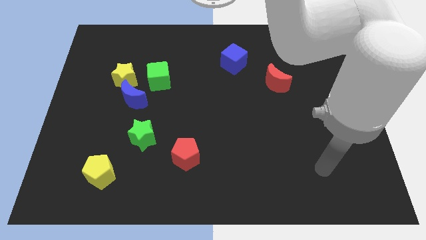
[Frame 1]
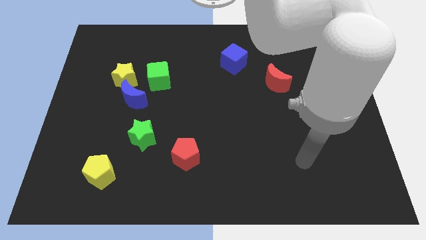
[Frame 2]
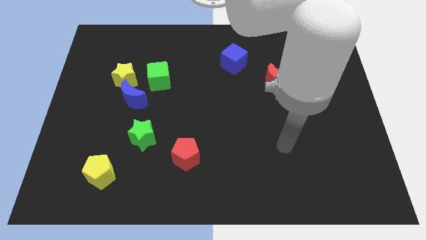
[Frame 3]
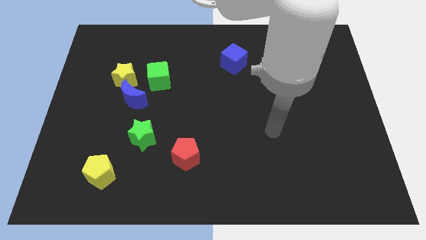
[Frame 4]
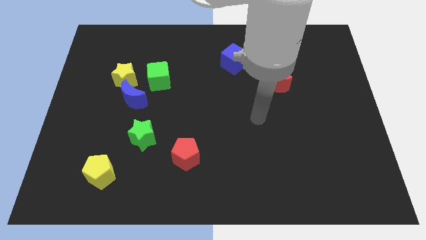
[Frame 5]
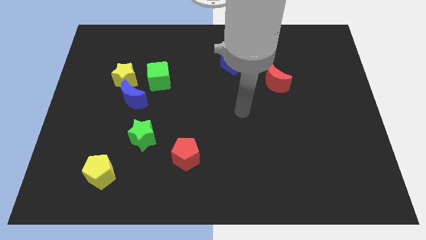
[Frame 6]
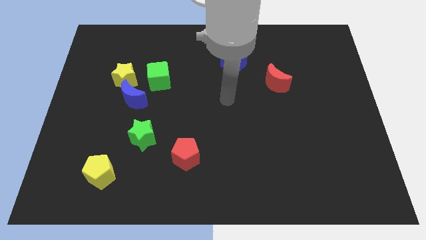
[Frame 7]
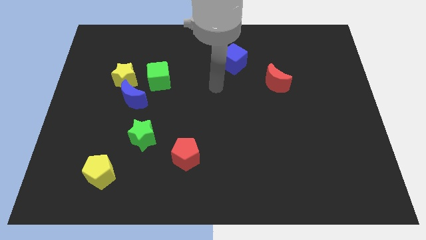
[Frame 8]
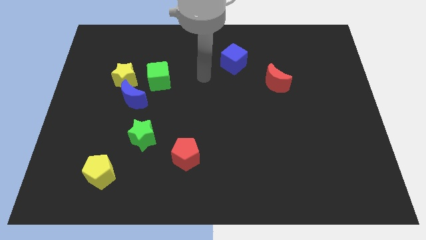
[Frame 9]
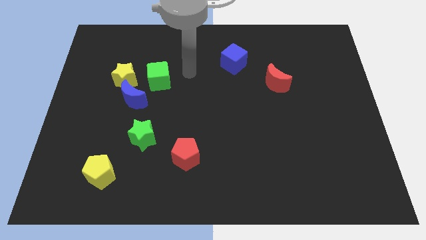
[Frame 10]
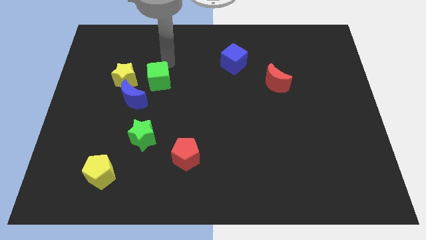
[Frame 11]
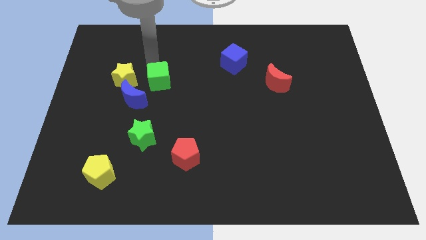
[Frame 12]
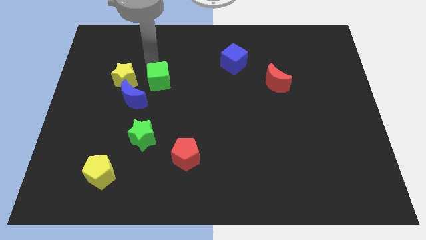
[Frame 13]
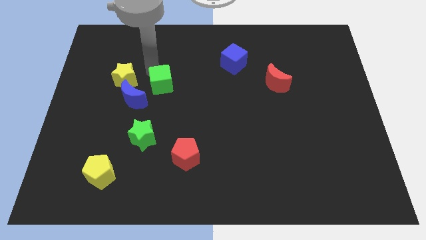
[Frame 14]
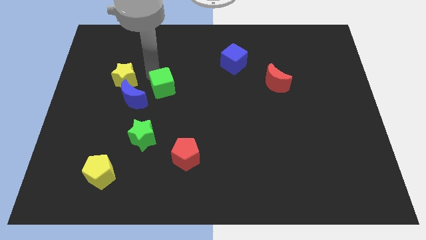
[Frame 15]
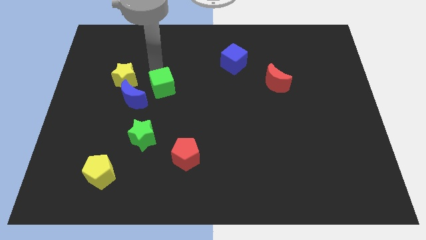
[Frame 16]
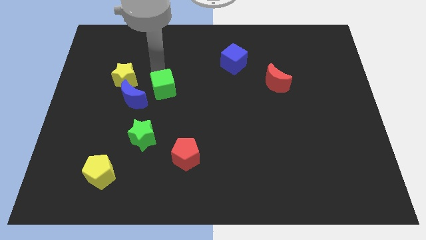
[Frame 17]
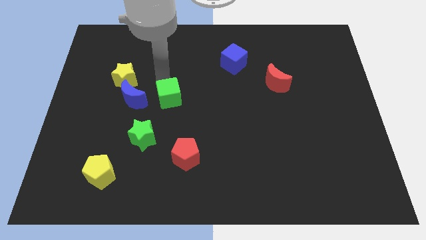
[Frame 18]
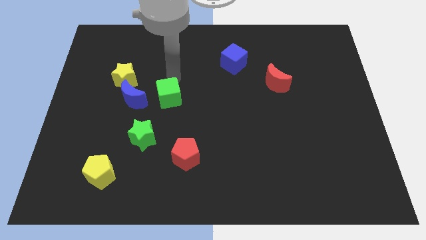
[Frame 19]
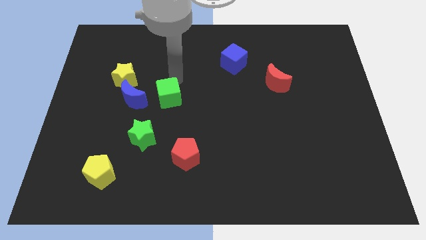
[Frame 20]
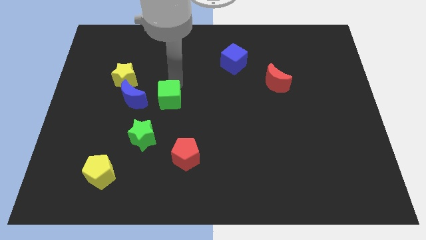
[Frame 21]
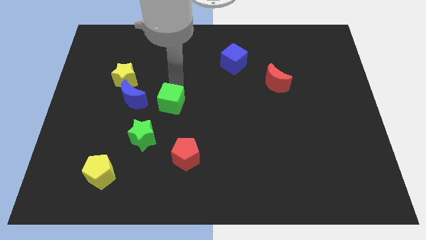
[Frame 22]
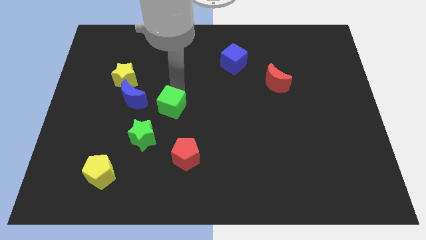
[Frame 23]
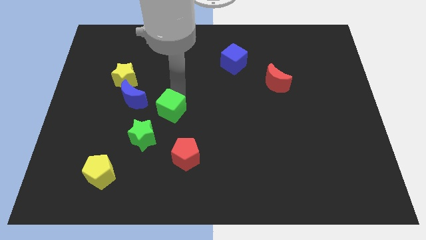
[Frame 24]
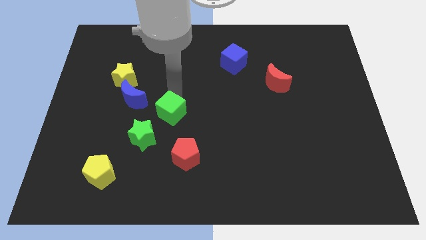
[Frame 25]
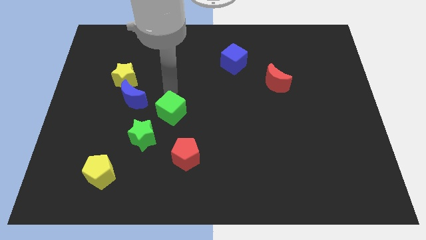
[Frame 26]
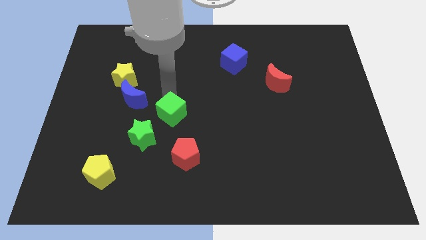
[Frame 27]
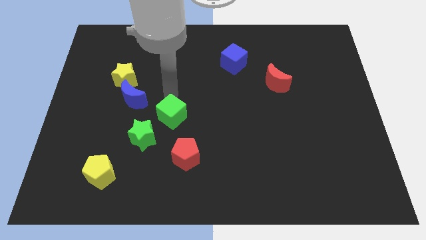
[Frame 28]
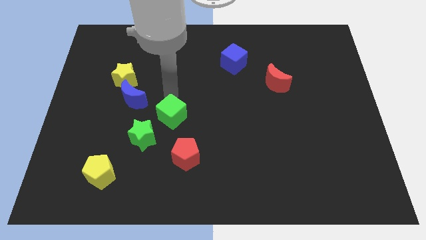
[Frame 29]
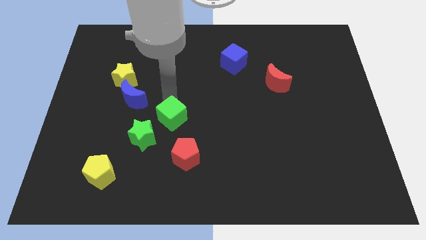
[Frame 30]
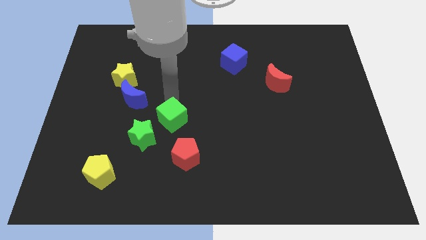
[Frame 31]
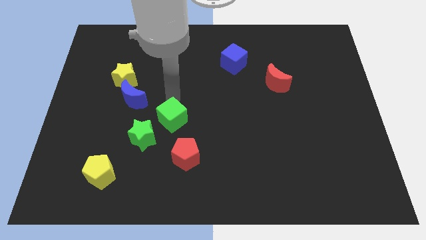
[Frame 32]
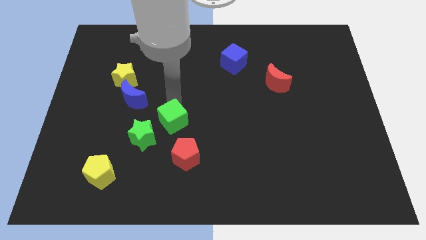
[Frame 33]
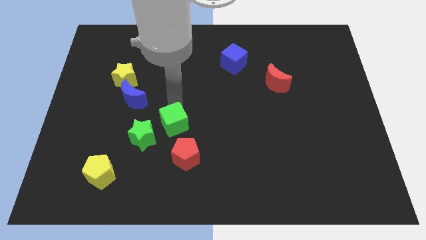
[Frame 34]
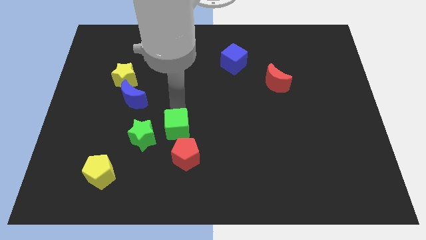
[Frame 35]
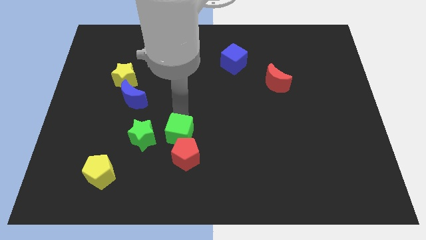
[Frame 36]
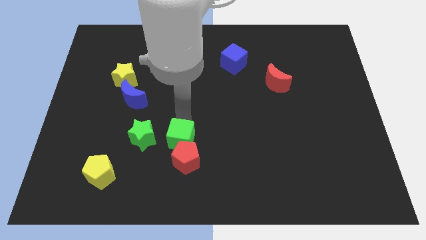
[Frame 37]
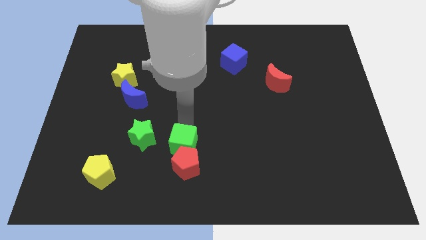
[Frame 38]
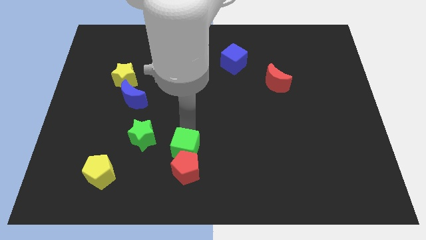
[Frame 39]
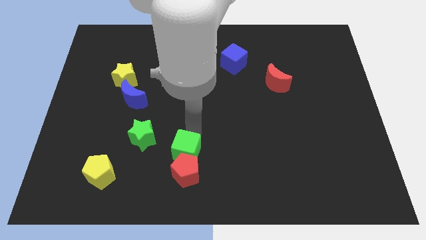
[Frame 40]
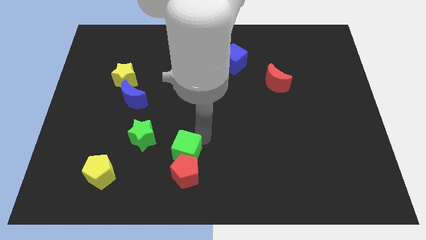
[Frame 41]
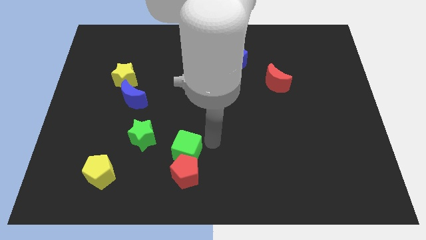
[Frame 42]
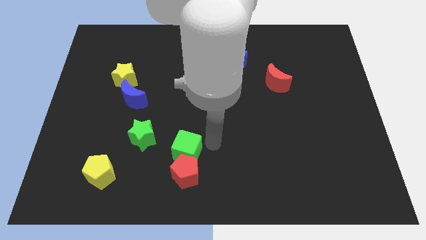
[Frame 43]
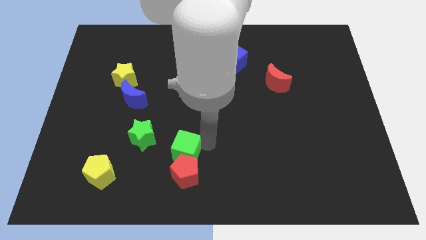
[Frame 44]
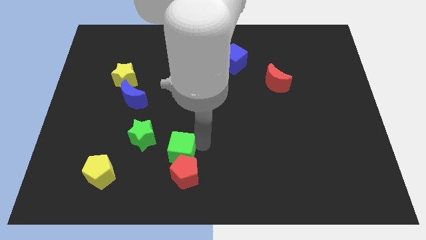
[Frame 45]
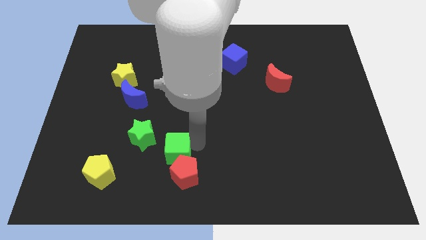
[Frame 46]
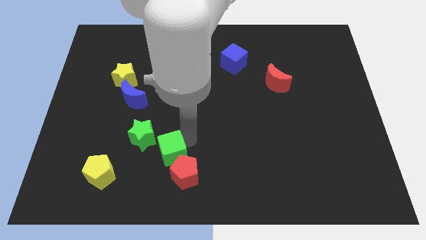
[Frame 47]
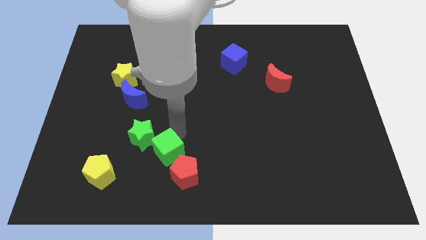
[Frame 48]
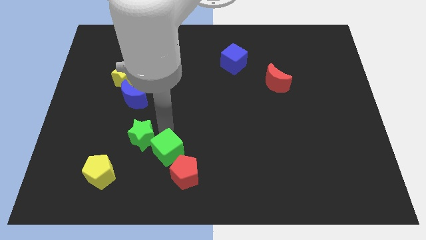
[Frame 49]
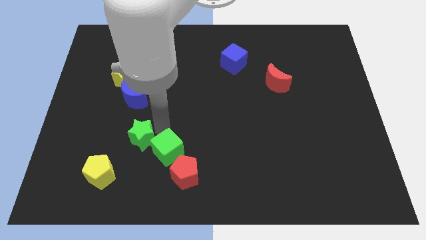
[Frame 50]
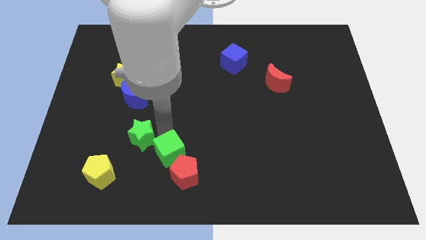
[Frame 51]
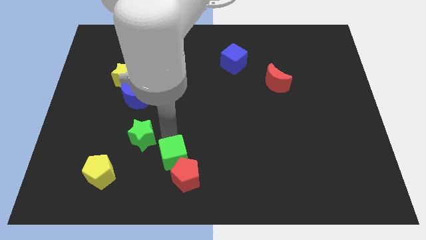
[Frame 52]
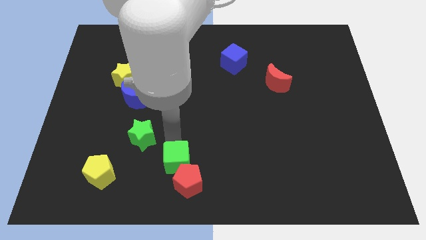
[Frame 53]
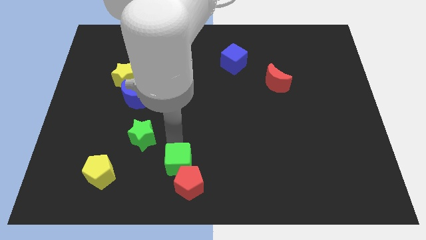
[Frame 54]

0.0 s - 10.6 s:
put the green cube to the bottom side

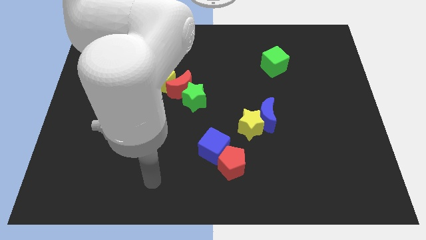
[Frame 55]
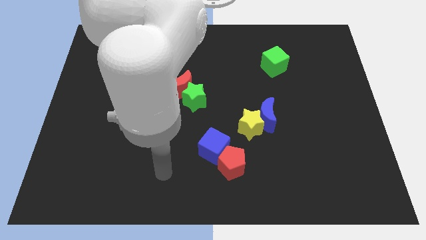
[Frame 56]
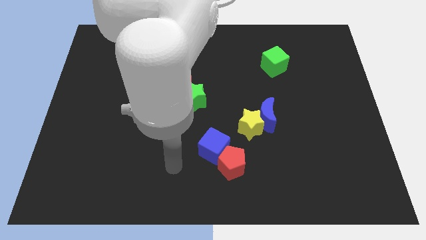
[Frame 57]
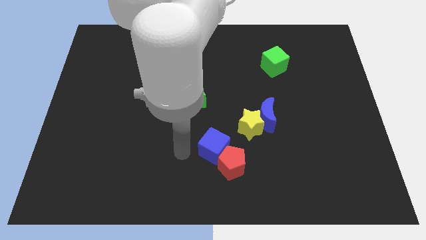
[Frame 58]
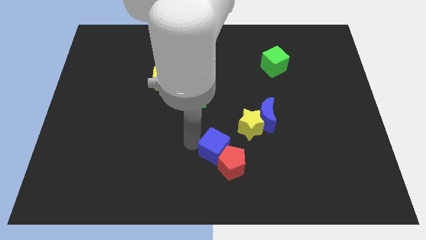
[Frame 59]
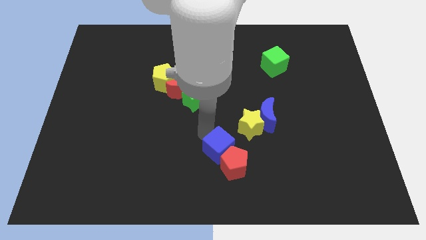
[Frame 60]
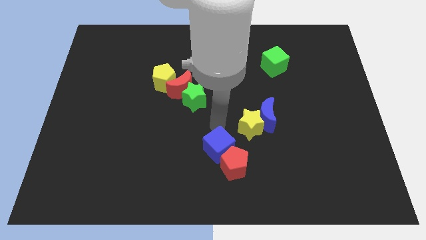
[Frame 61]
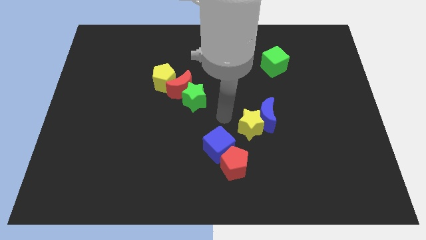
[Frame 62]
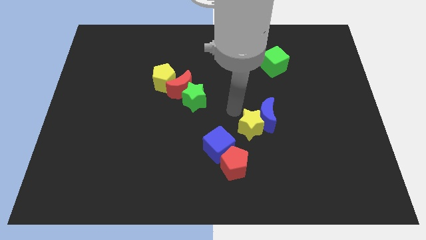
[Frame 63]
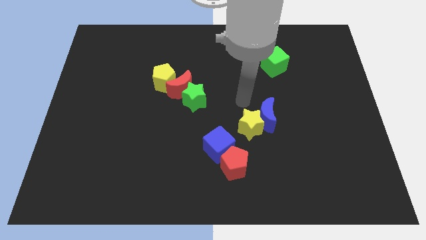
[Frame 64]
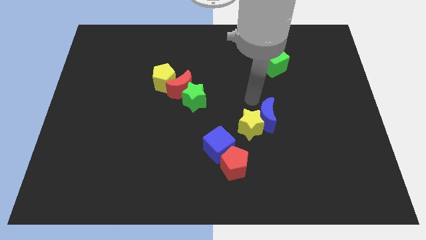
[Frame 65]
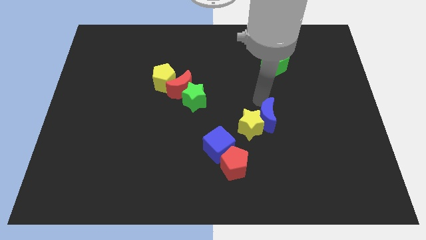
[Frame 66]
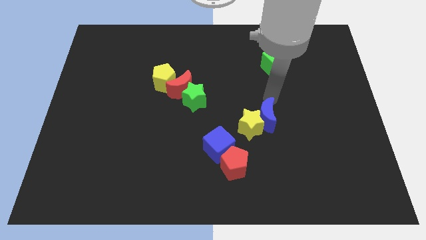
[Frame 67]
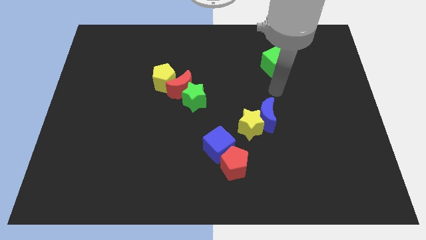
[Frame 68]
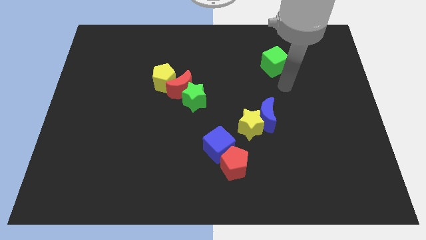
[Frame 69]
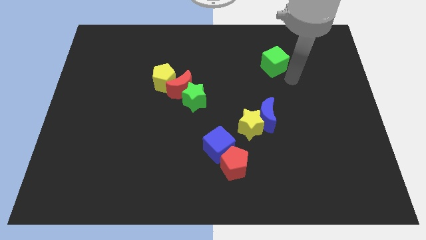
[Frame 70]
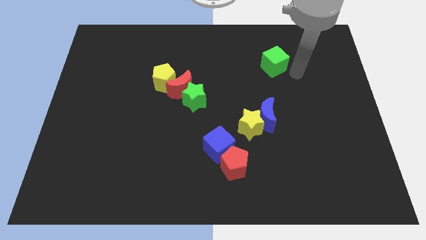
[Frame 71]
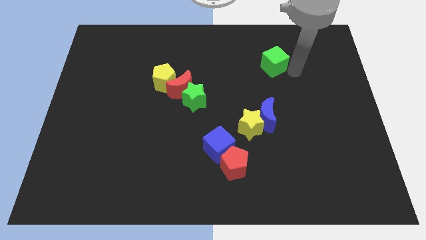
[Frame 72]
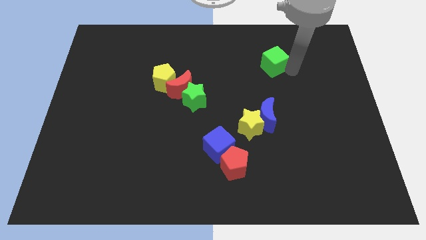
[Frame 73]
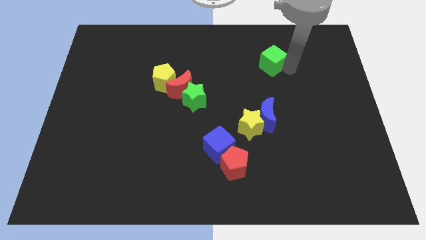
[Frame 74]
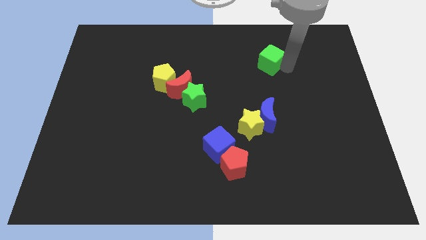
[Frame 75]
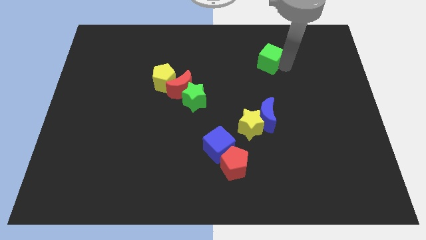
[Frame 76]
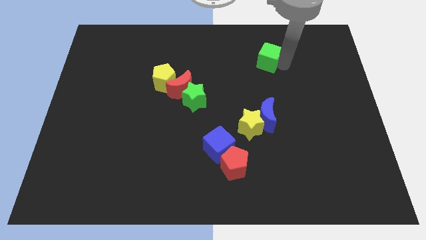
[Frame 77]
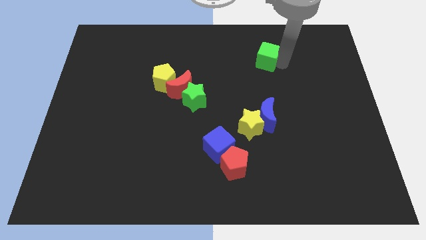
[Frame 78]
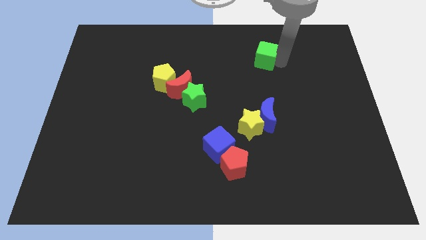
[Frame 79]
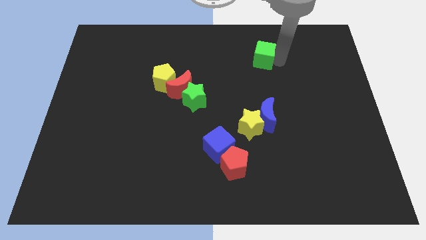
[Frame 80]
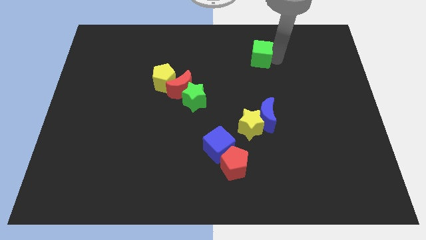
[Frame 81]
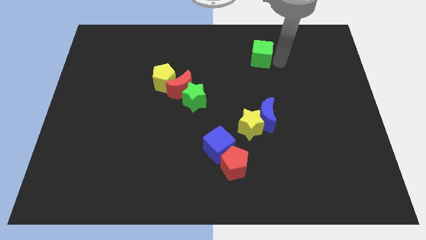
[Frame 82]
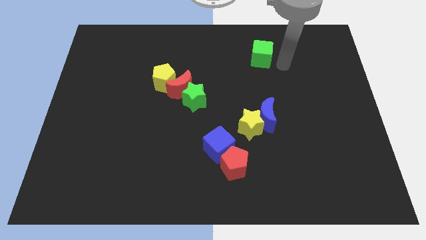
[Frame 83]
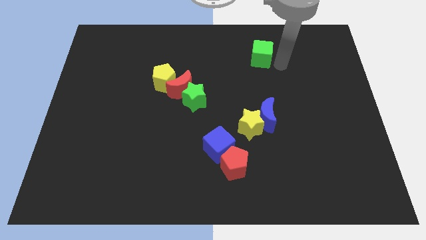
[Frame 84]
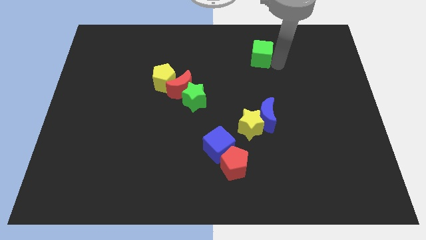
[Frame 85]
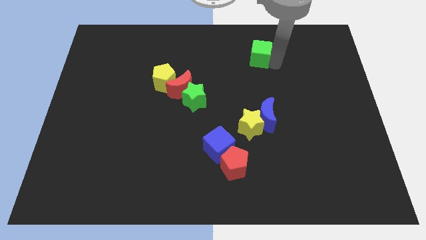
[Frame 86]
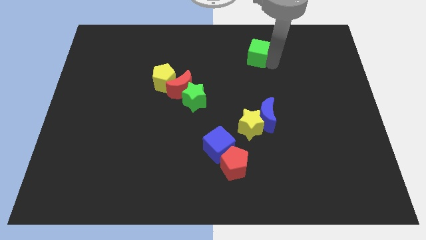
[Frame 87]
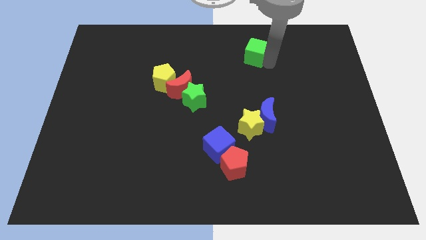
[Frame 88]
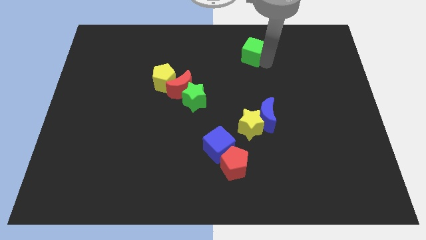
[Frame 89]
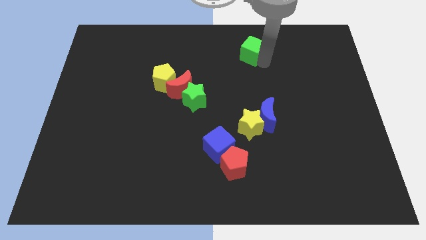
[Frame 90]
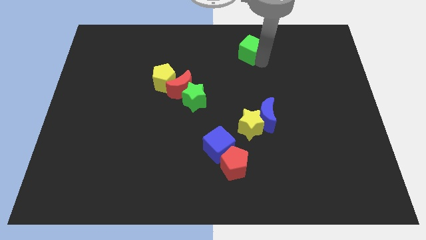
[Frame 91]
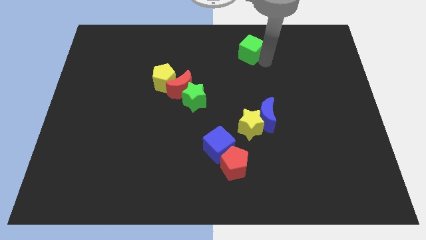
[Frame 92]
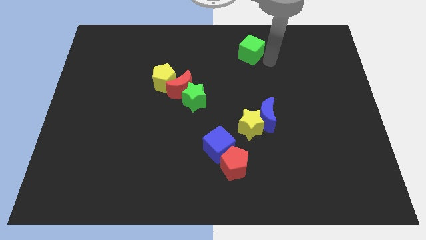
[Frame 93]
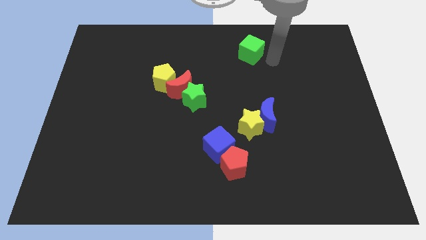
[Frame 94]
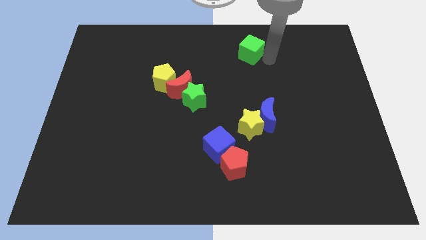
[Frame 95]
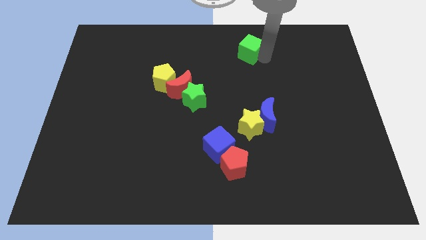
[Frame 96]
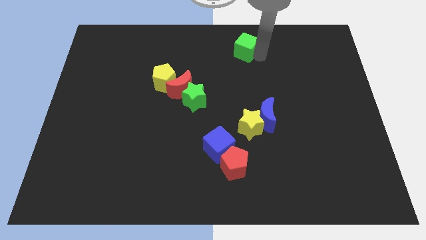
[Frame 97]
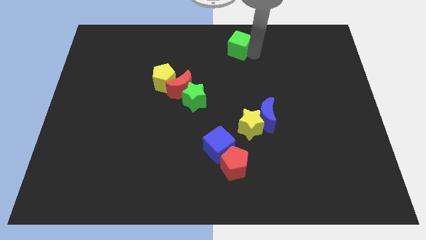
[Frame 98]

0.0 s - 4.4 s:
push the green cube to the top side
